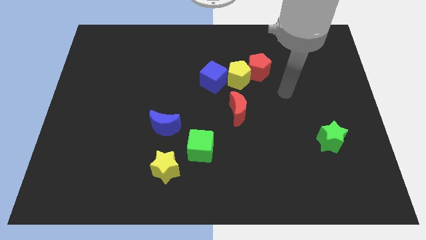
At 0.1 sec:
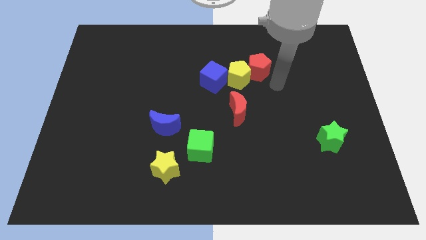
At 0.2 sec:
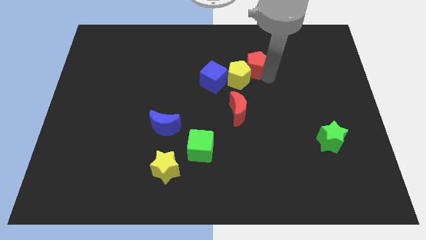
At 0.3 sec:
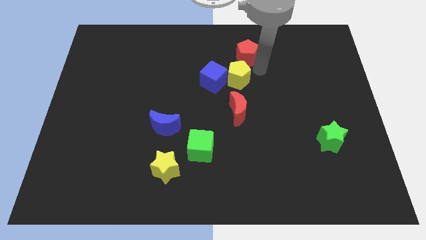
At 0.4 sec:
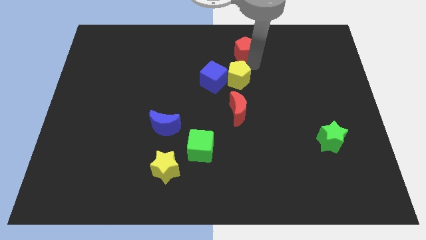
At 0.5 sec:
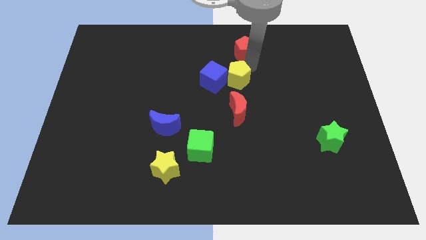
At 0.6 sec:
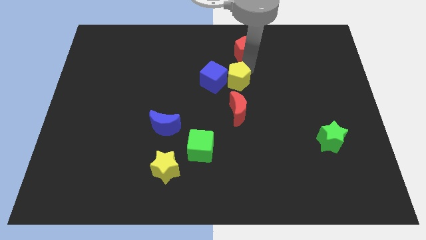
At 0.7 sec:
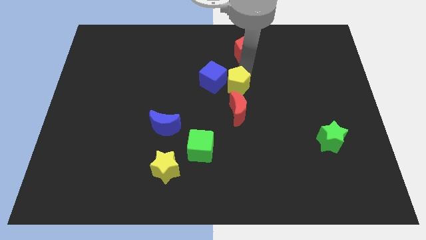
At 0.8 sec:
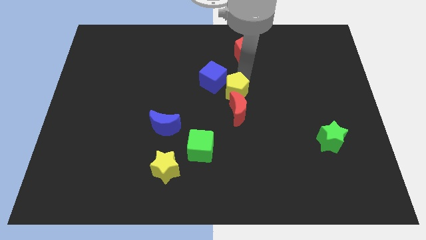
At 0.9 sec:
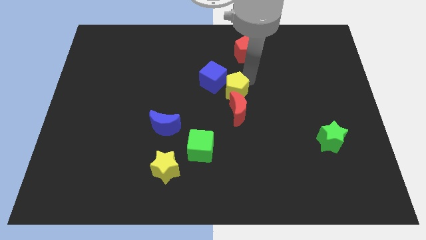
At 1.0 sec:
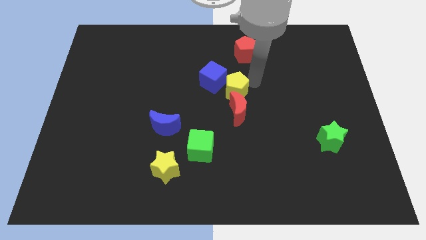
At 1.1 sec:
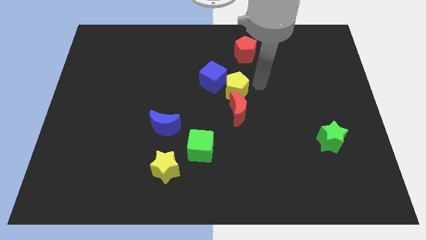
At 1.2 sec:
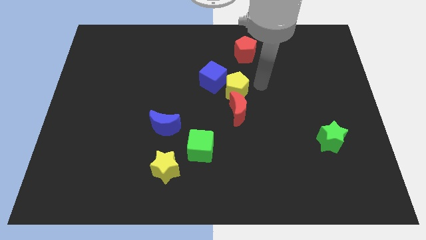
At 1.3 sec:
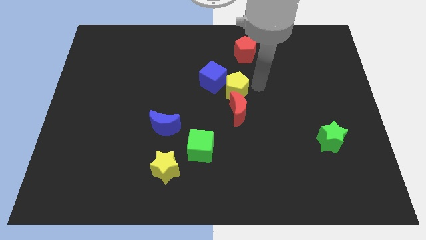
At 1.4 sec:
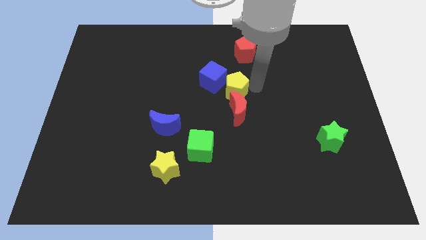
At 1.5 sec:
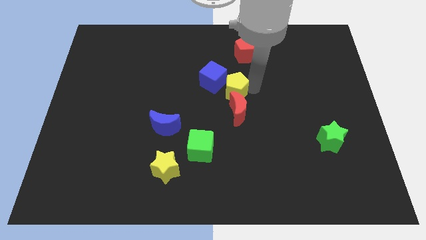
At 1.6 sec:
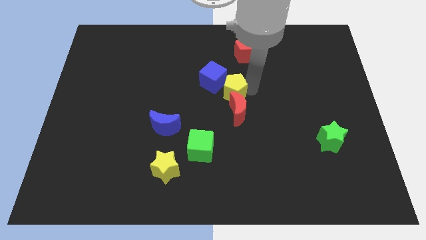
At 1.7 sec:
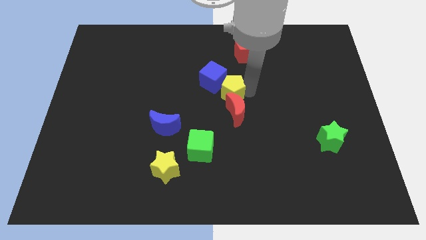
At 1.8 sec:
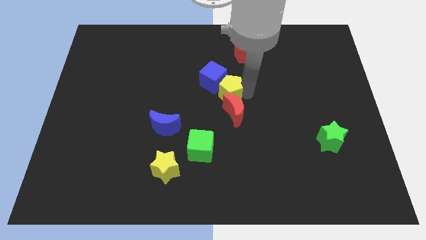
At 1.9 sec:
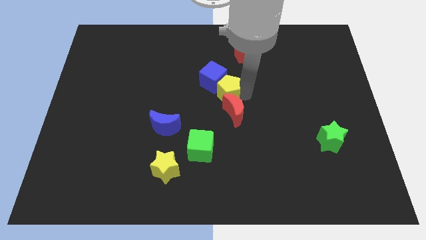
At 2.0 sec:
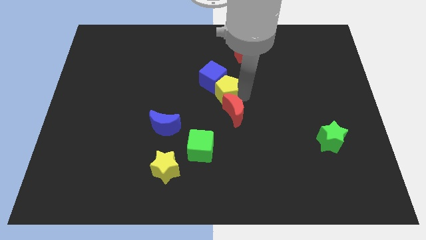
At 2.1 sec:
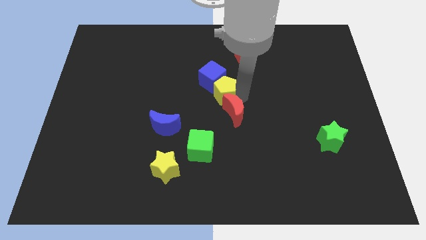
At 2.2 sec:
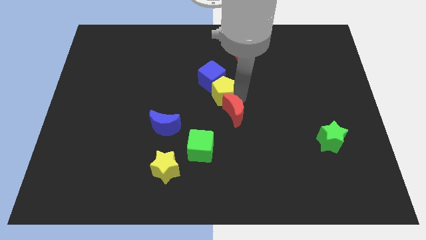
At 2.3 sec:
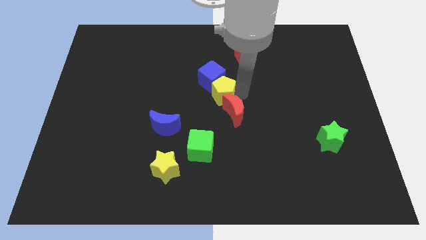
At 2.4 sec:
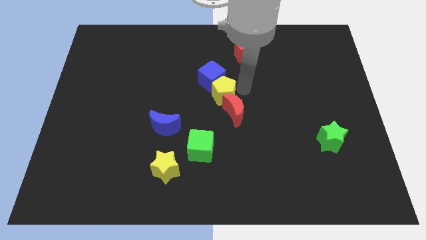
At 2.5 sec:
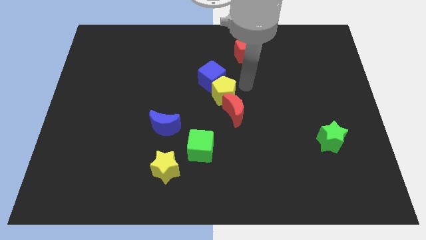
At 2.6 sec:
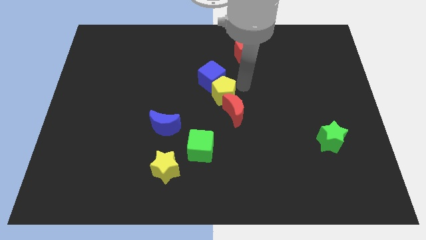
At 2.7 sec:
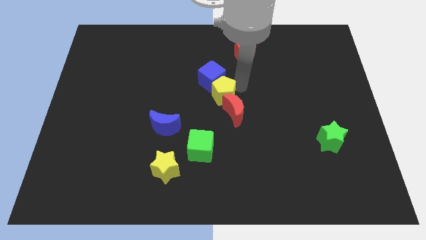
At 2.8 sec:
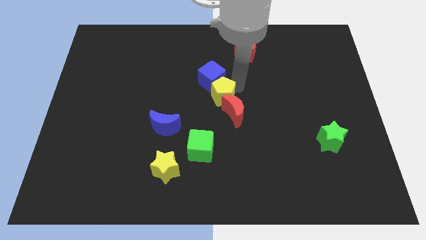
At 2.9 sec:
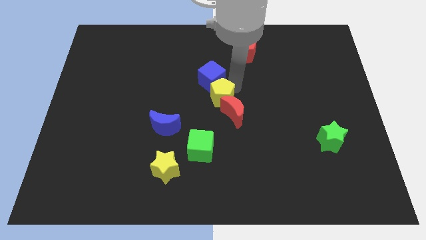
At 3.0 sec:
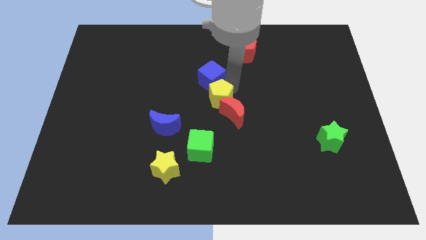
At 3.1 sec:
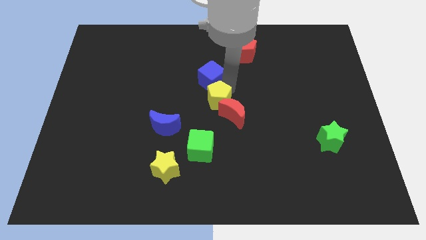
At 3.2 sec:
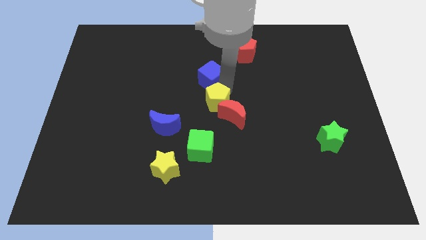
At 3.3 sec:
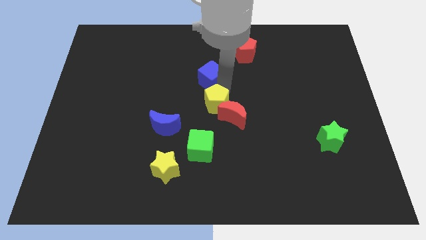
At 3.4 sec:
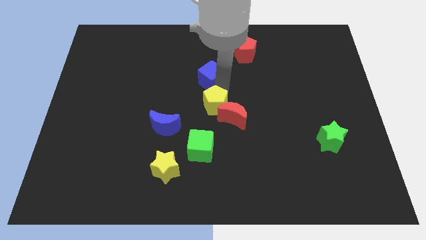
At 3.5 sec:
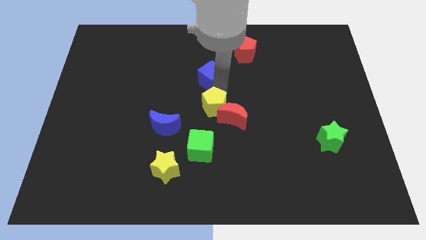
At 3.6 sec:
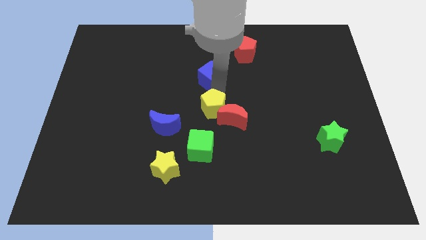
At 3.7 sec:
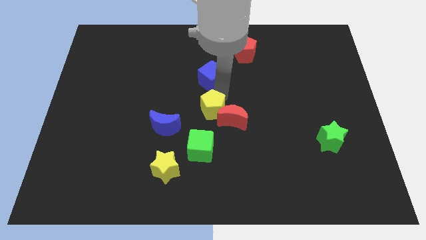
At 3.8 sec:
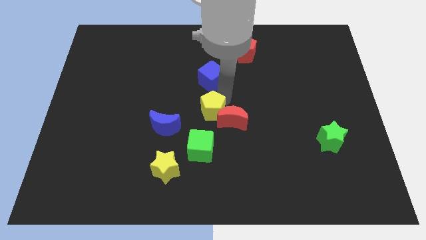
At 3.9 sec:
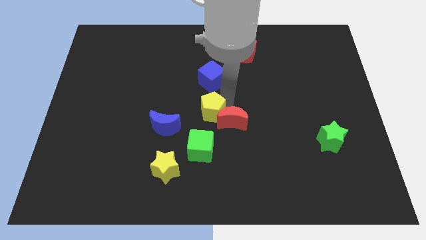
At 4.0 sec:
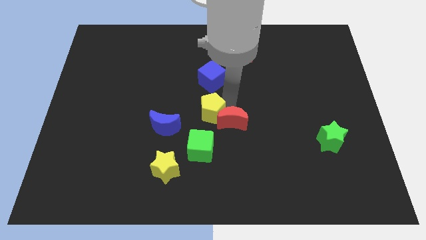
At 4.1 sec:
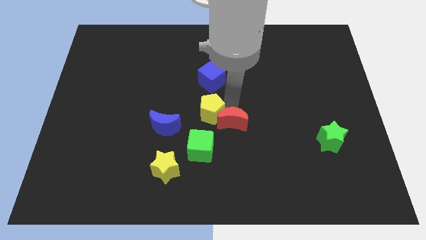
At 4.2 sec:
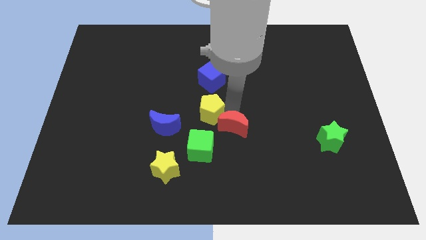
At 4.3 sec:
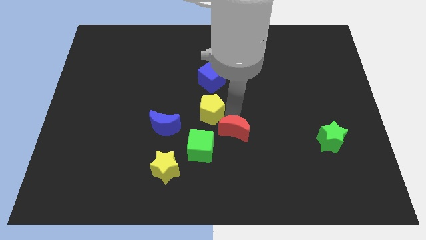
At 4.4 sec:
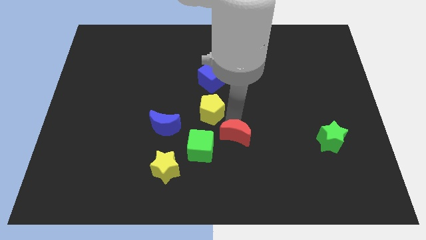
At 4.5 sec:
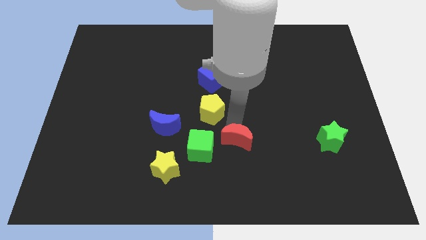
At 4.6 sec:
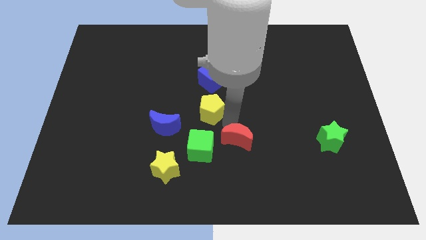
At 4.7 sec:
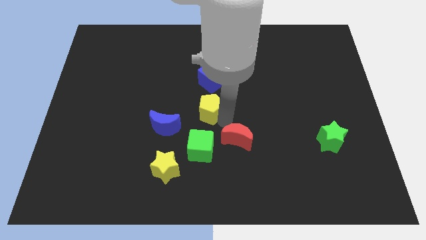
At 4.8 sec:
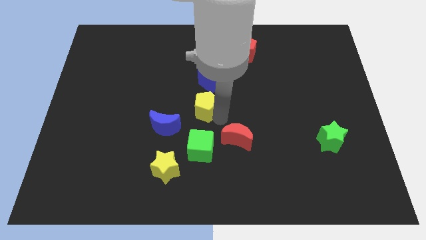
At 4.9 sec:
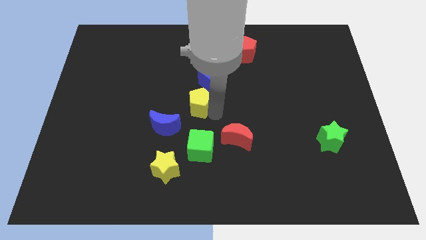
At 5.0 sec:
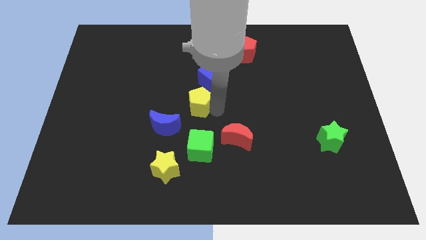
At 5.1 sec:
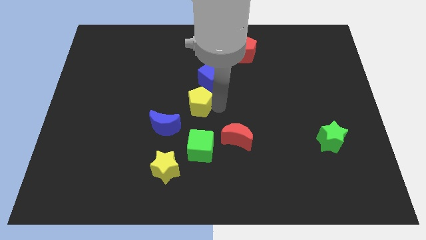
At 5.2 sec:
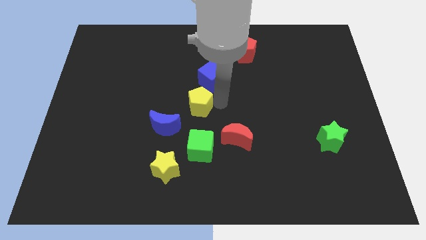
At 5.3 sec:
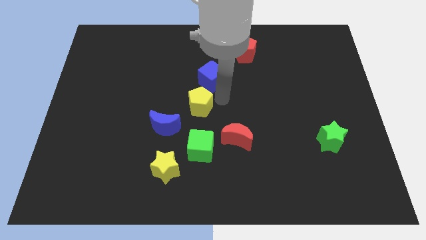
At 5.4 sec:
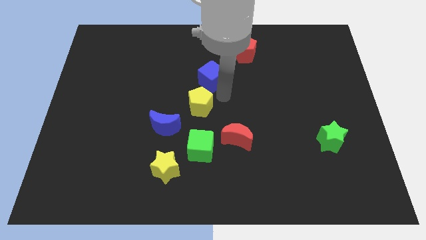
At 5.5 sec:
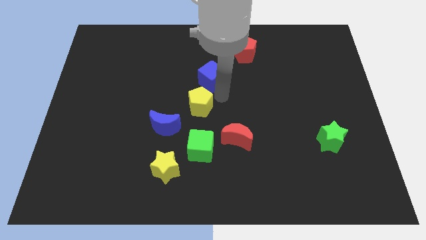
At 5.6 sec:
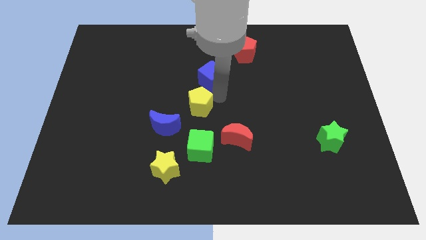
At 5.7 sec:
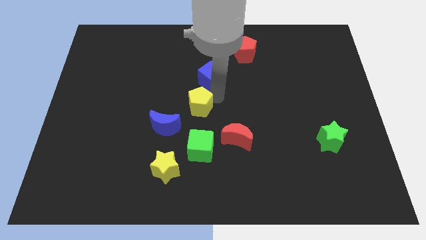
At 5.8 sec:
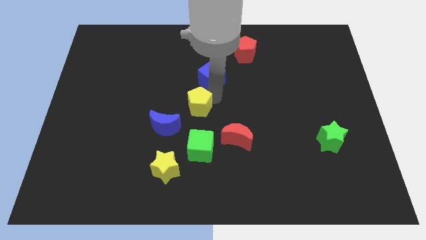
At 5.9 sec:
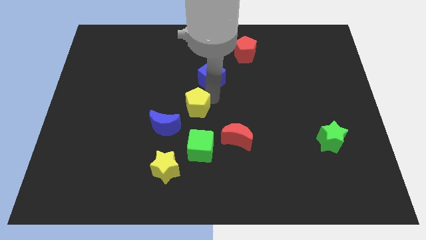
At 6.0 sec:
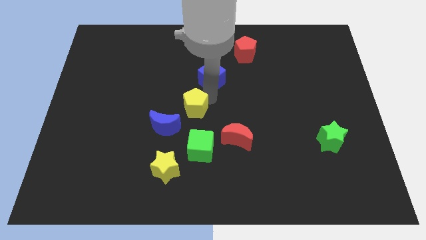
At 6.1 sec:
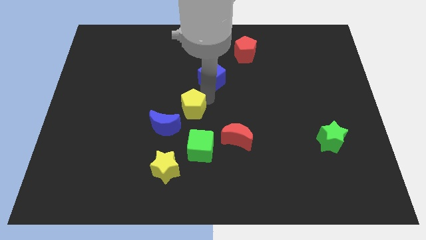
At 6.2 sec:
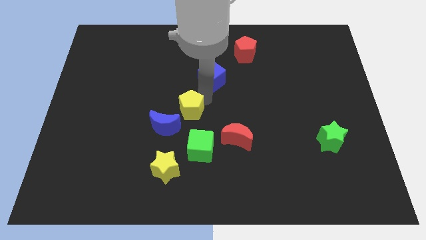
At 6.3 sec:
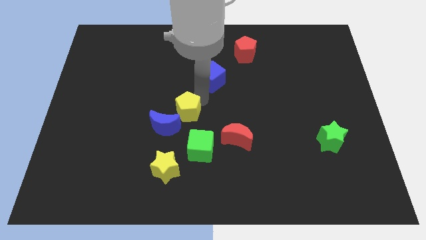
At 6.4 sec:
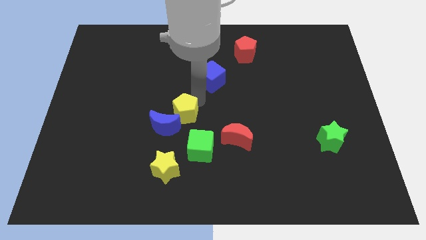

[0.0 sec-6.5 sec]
push the yellow pentagon towards the blue moon

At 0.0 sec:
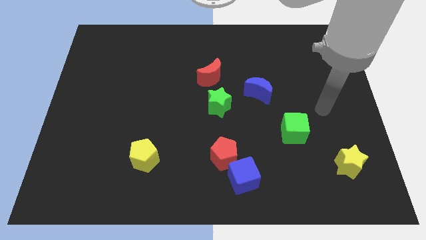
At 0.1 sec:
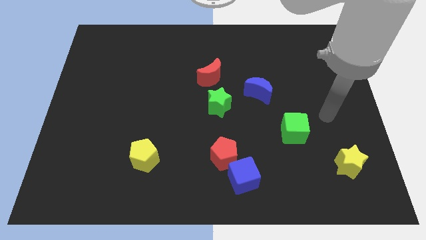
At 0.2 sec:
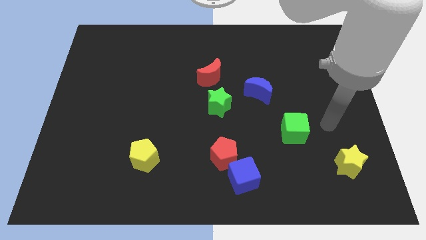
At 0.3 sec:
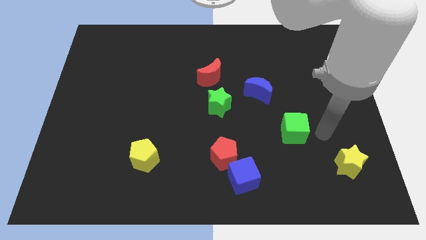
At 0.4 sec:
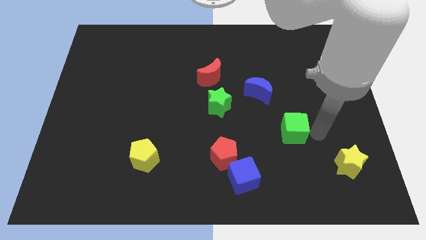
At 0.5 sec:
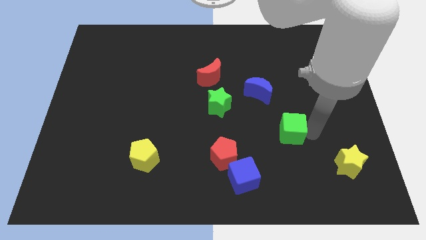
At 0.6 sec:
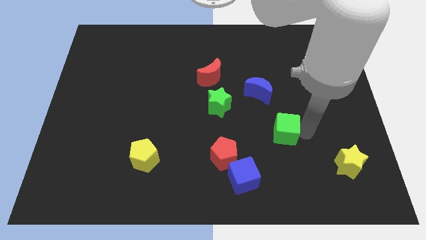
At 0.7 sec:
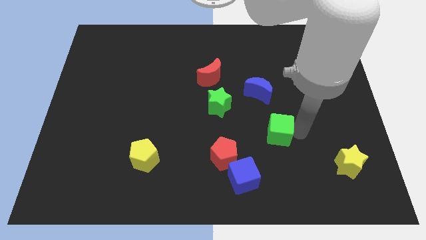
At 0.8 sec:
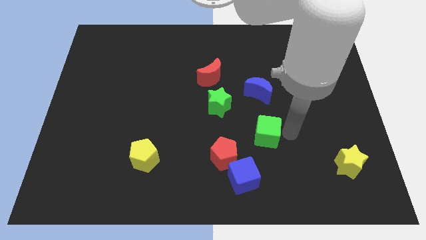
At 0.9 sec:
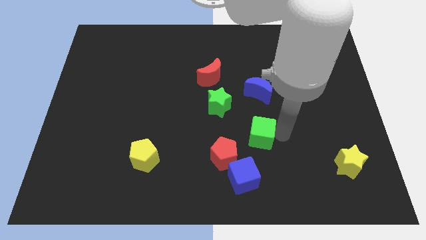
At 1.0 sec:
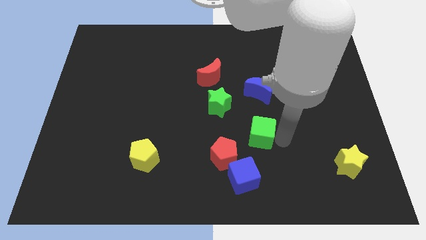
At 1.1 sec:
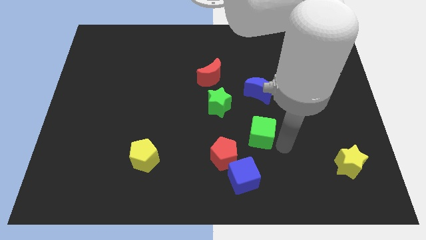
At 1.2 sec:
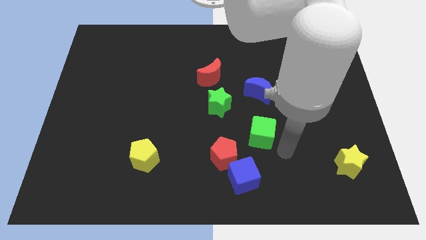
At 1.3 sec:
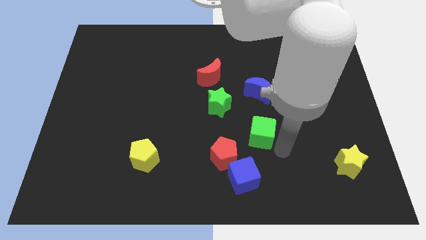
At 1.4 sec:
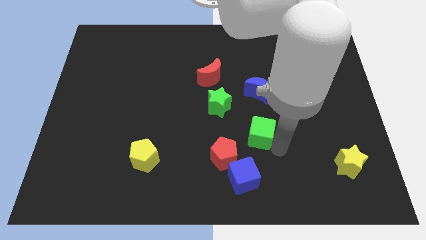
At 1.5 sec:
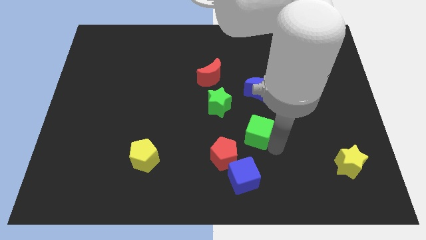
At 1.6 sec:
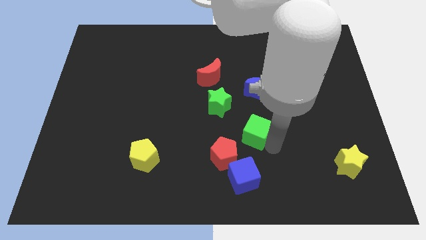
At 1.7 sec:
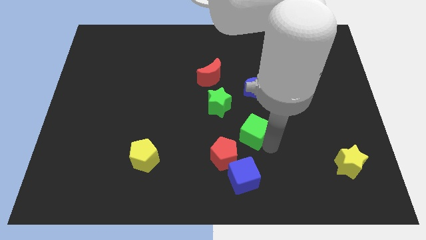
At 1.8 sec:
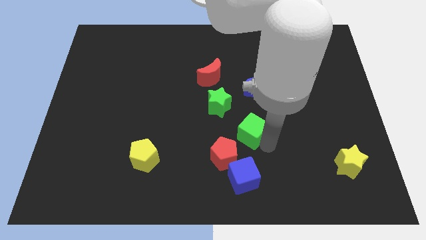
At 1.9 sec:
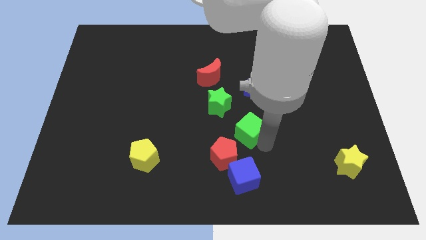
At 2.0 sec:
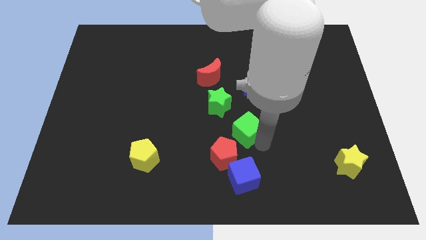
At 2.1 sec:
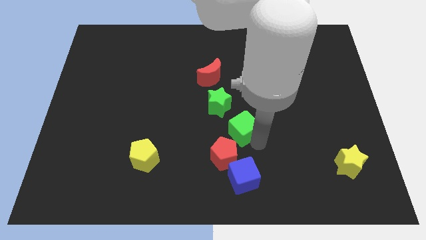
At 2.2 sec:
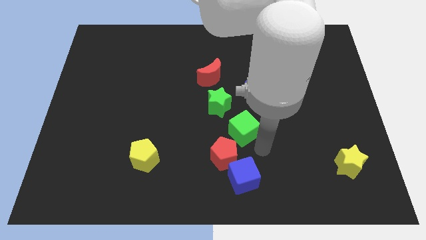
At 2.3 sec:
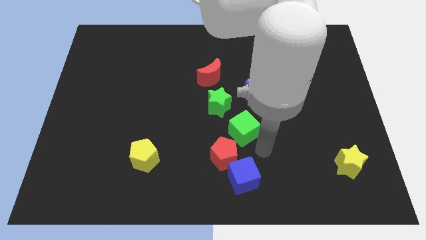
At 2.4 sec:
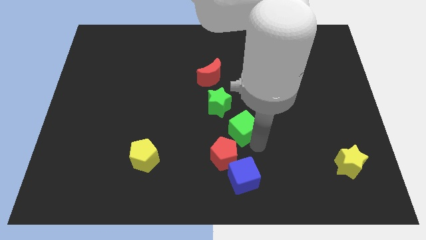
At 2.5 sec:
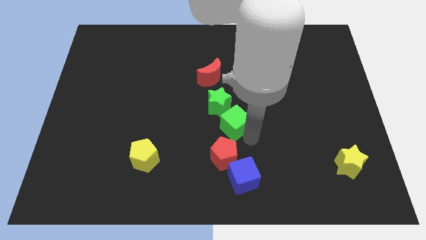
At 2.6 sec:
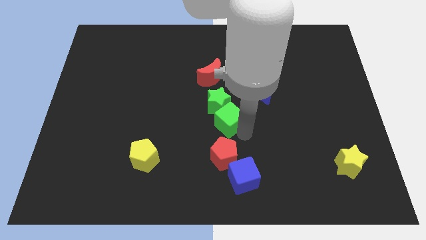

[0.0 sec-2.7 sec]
put the green cube close to the green star
